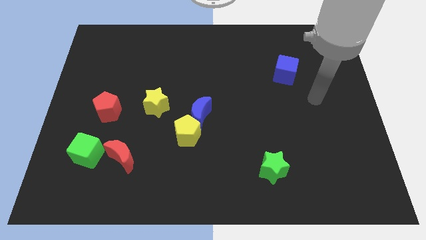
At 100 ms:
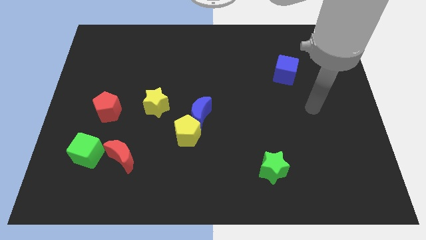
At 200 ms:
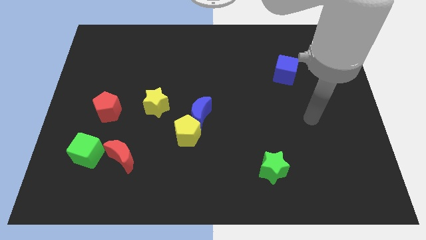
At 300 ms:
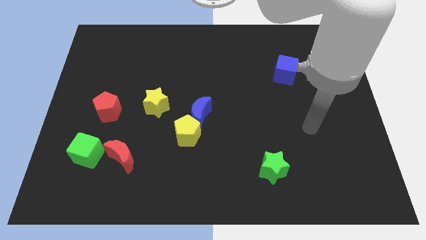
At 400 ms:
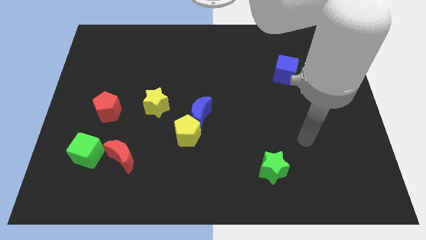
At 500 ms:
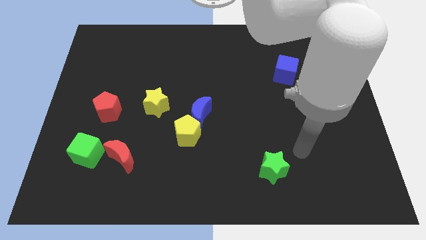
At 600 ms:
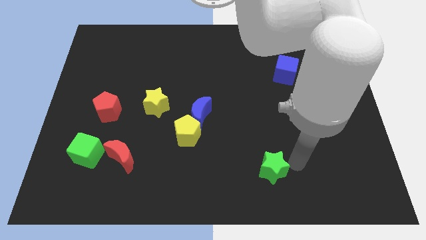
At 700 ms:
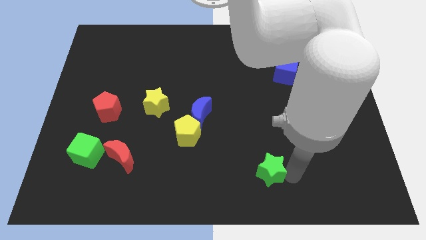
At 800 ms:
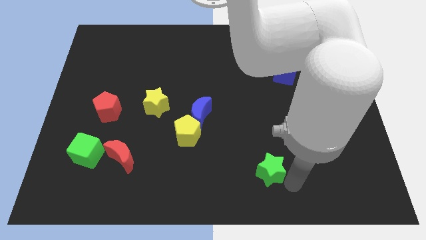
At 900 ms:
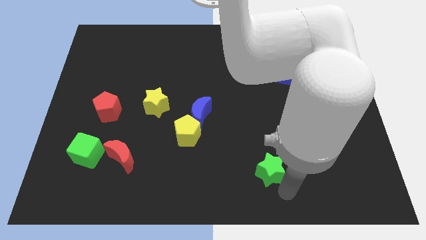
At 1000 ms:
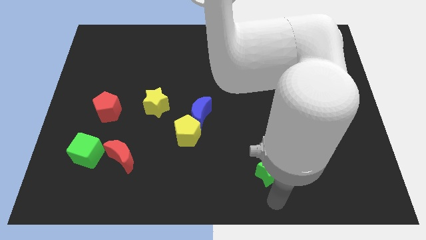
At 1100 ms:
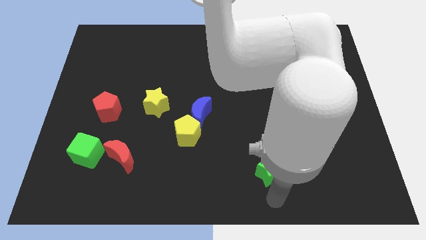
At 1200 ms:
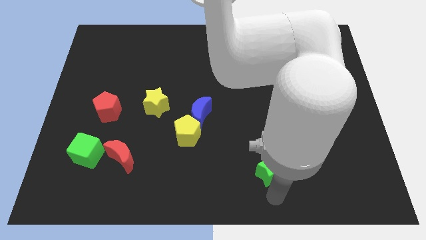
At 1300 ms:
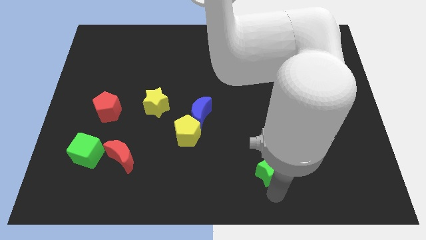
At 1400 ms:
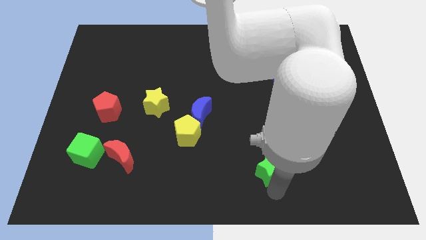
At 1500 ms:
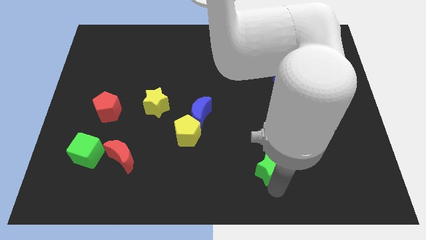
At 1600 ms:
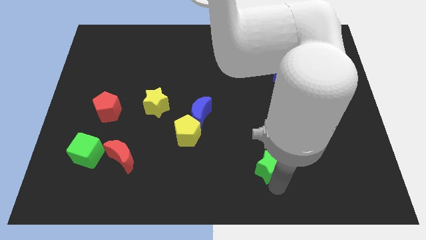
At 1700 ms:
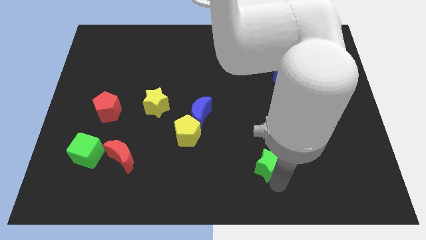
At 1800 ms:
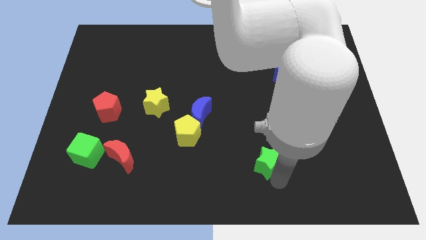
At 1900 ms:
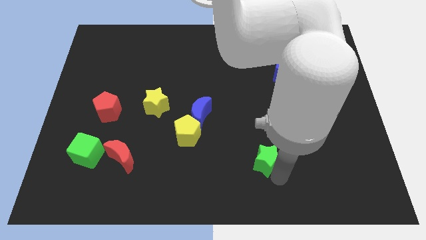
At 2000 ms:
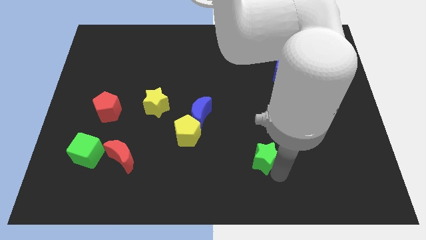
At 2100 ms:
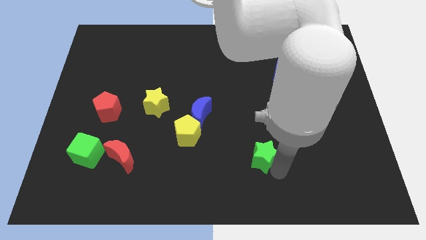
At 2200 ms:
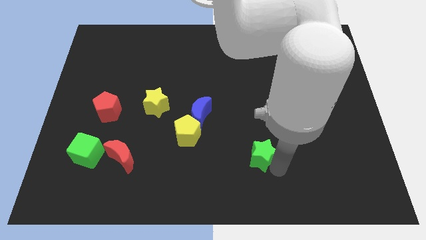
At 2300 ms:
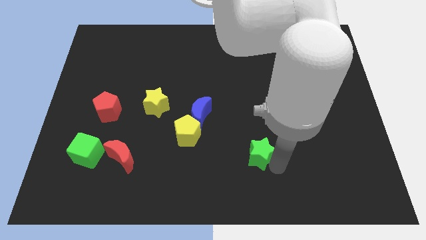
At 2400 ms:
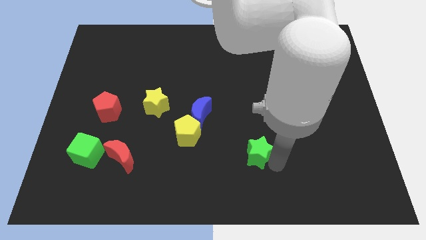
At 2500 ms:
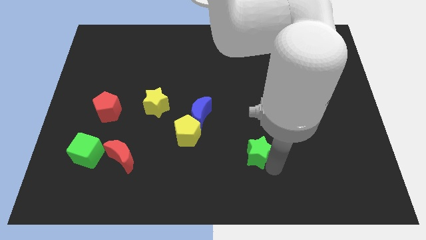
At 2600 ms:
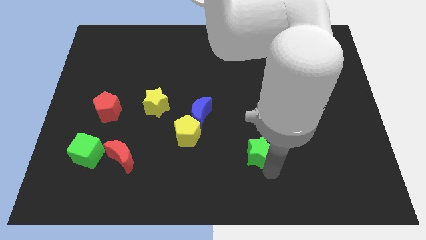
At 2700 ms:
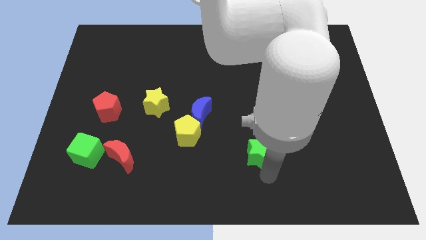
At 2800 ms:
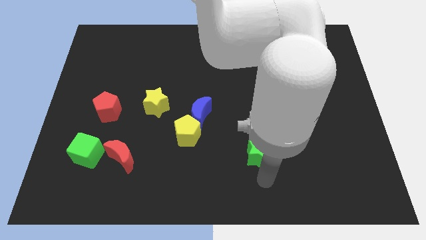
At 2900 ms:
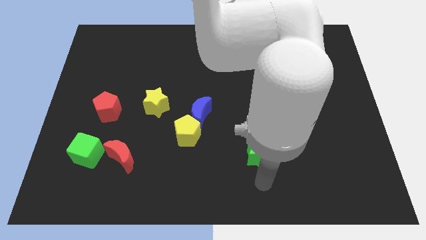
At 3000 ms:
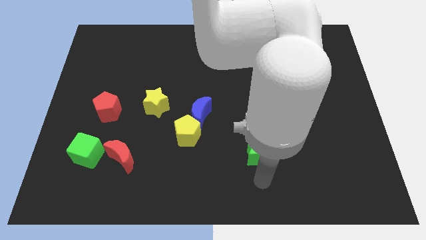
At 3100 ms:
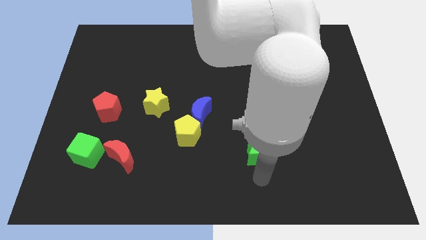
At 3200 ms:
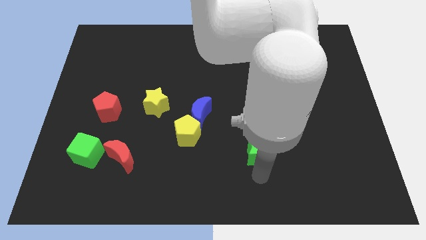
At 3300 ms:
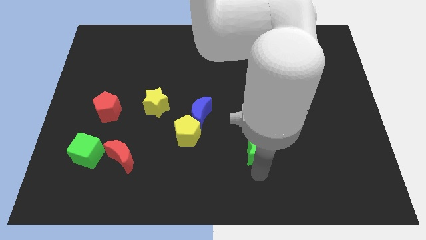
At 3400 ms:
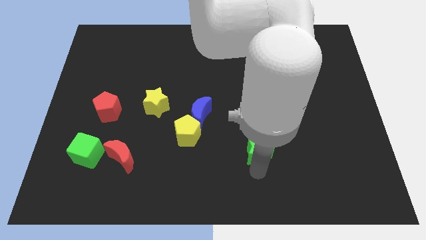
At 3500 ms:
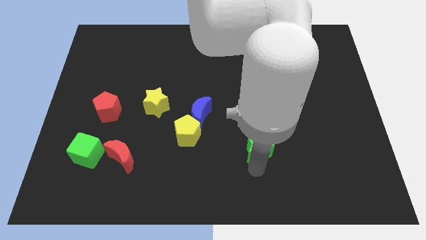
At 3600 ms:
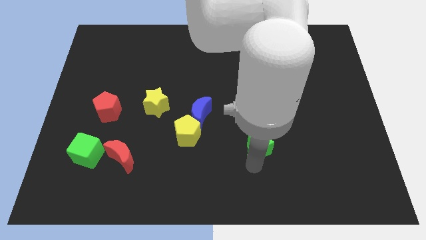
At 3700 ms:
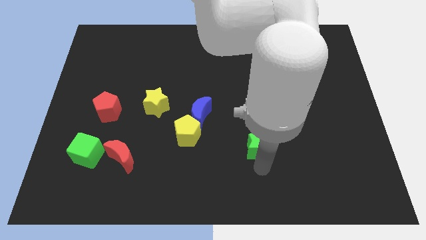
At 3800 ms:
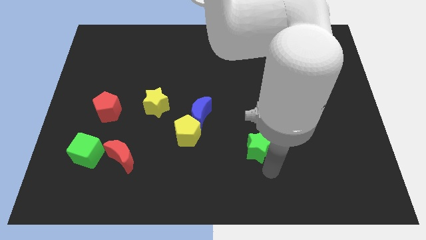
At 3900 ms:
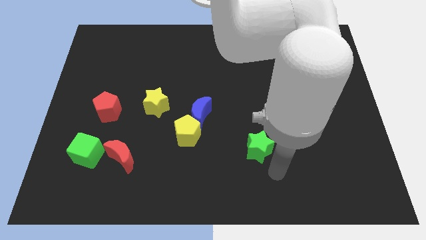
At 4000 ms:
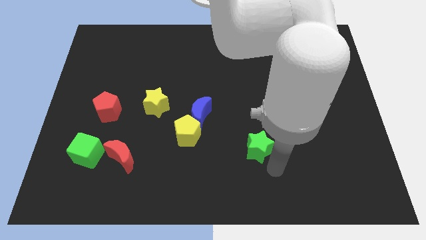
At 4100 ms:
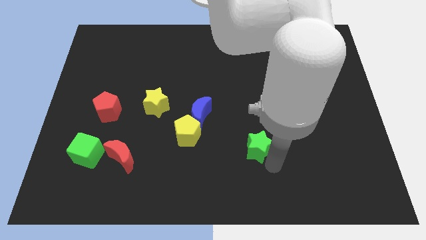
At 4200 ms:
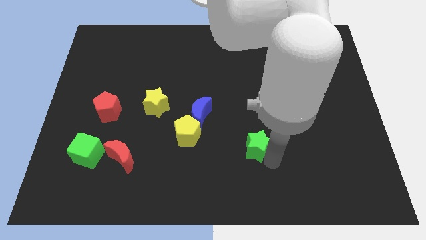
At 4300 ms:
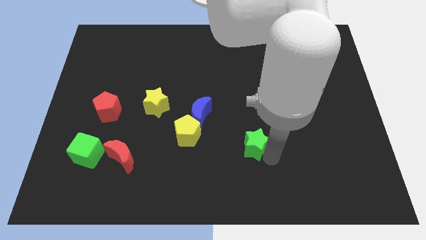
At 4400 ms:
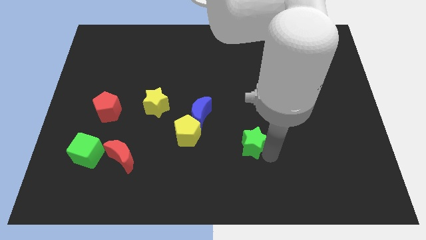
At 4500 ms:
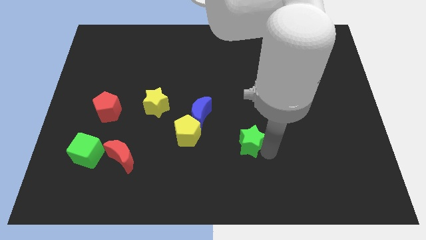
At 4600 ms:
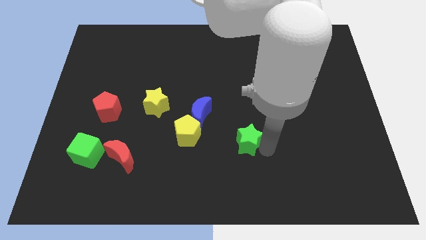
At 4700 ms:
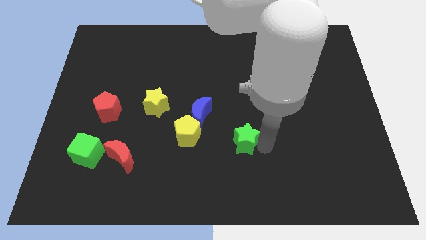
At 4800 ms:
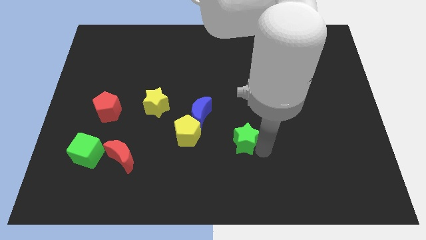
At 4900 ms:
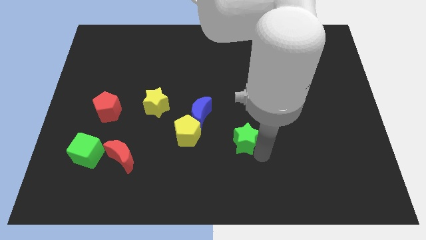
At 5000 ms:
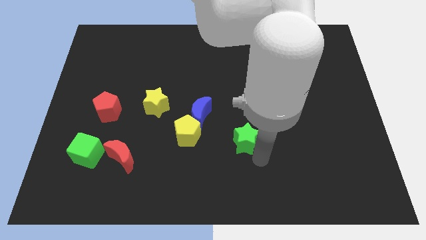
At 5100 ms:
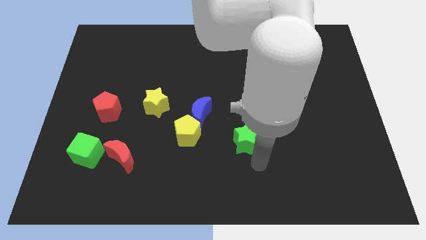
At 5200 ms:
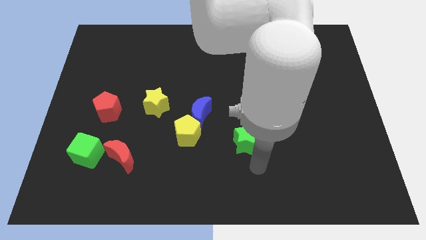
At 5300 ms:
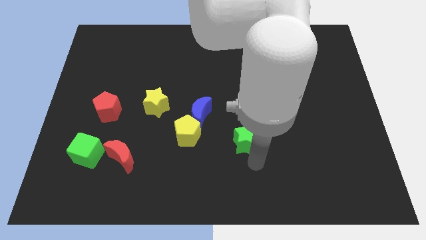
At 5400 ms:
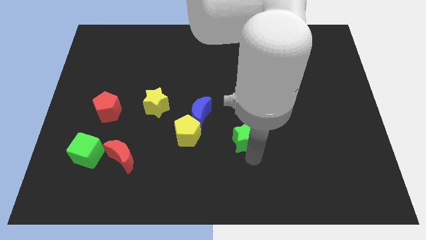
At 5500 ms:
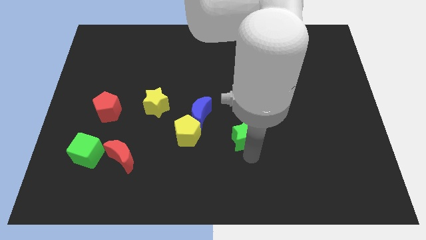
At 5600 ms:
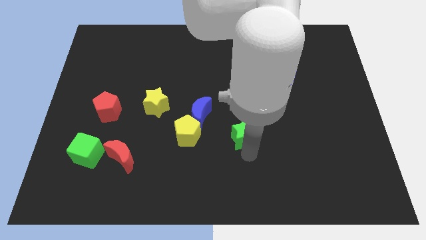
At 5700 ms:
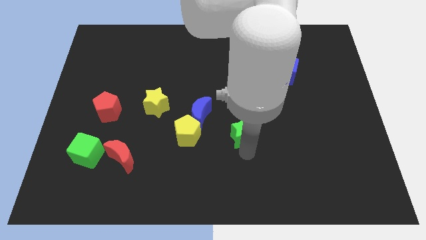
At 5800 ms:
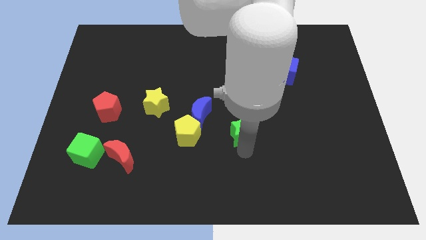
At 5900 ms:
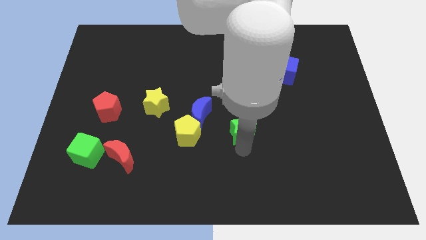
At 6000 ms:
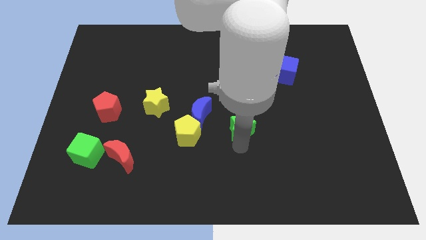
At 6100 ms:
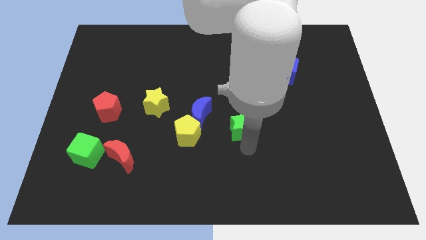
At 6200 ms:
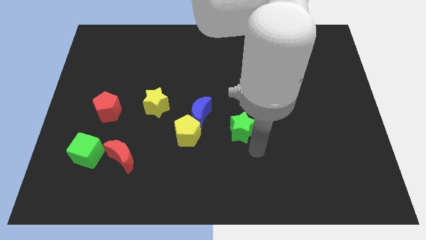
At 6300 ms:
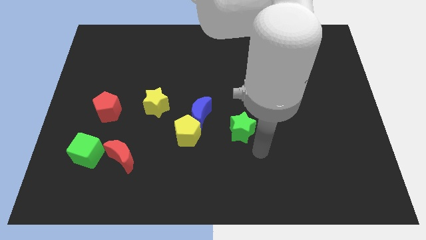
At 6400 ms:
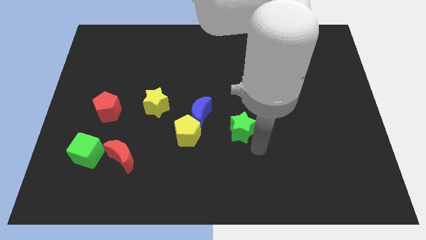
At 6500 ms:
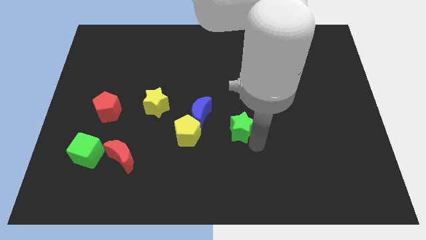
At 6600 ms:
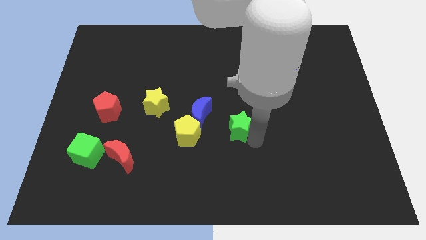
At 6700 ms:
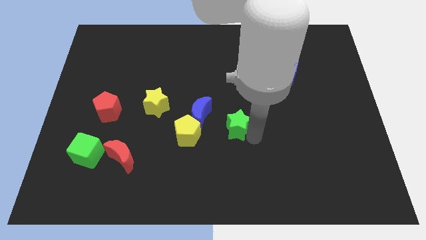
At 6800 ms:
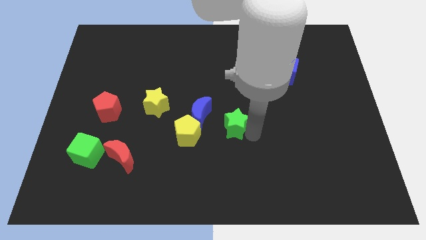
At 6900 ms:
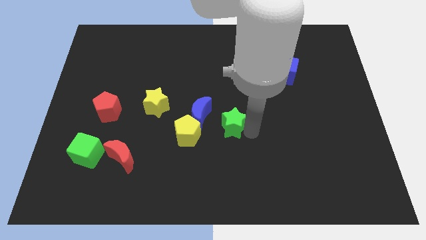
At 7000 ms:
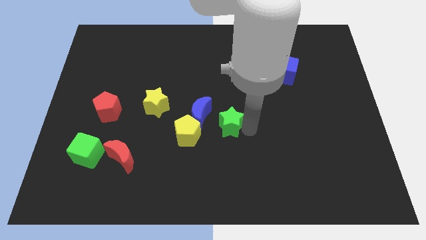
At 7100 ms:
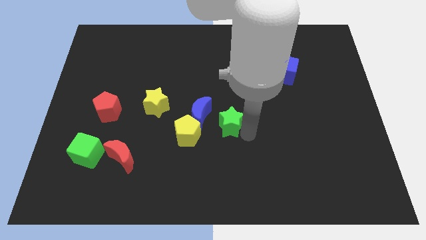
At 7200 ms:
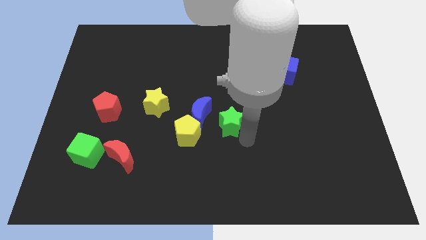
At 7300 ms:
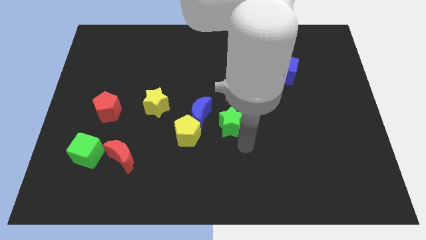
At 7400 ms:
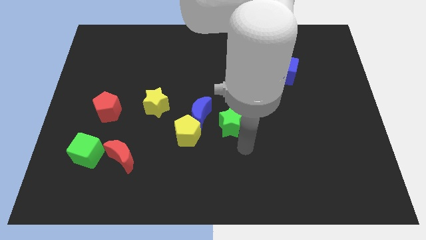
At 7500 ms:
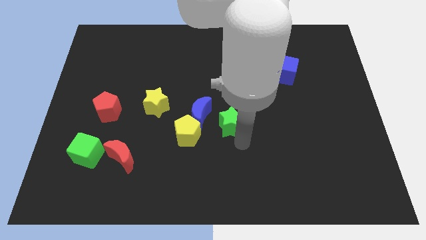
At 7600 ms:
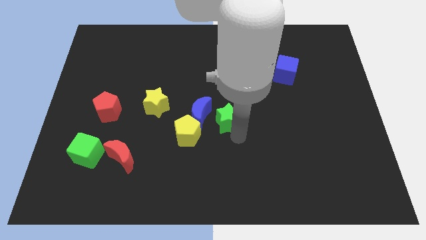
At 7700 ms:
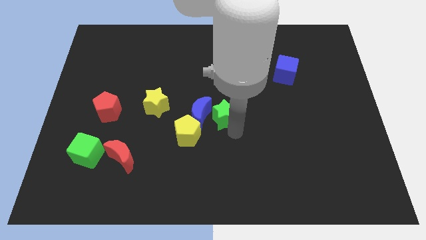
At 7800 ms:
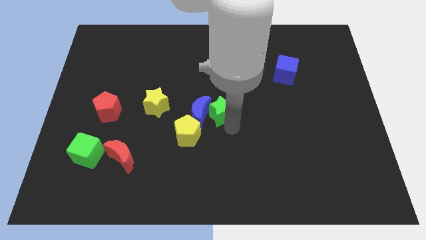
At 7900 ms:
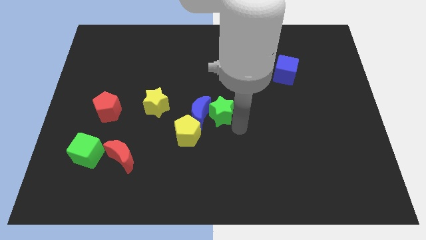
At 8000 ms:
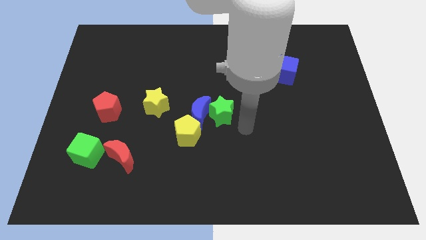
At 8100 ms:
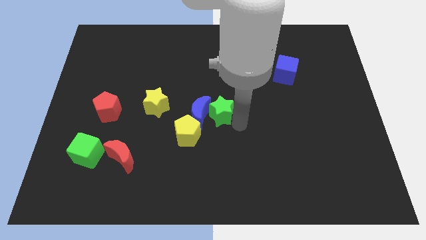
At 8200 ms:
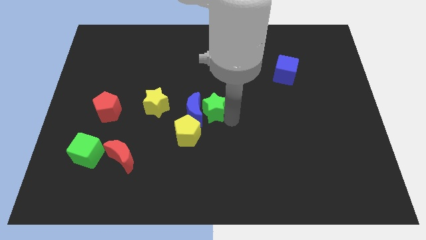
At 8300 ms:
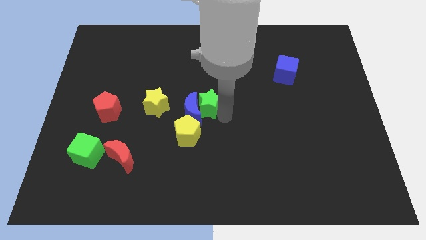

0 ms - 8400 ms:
push the green star up and to the left
